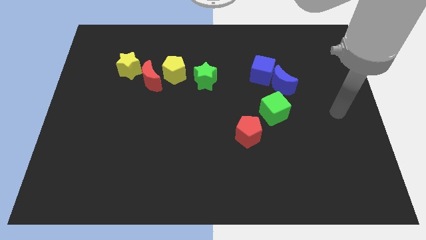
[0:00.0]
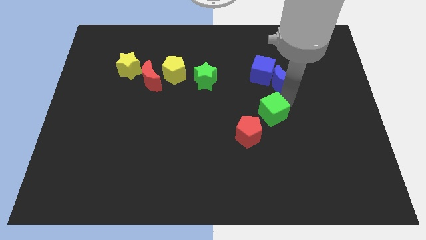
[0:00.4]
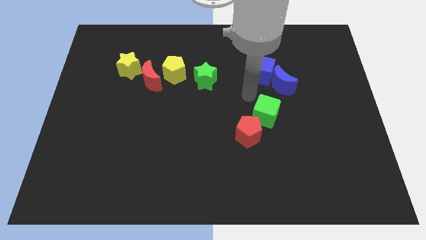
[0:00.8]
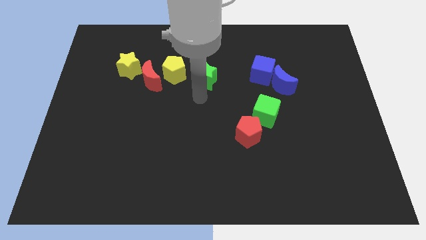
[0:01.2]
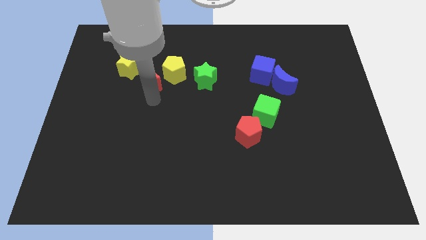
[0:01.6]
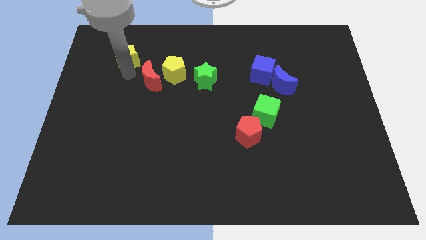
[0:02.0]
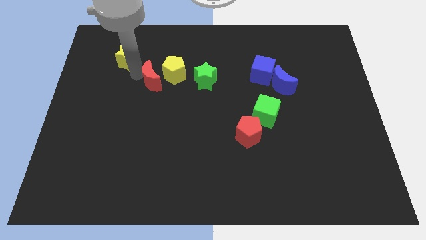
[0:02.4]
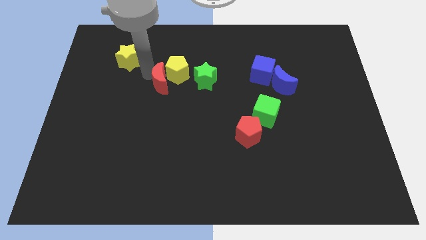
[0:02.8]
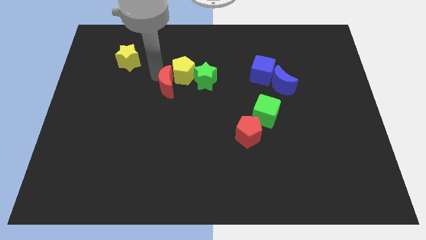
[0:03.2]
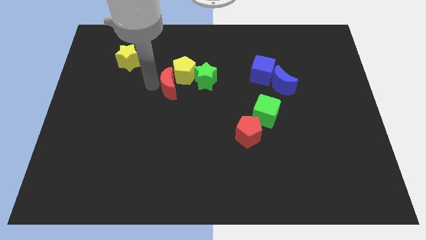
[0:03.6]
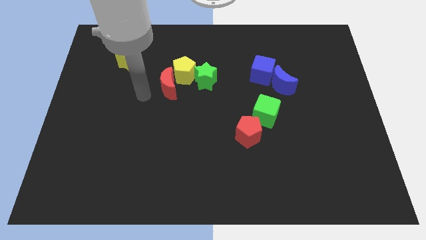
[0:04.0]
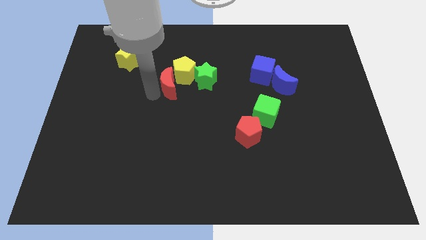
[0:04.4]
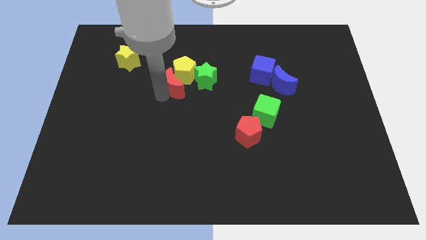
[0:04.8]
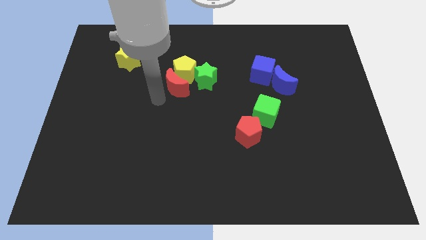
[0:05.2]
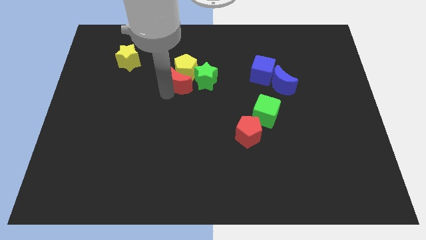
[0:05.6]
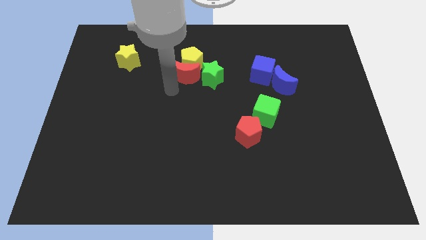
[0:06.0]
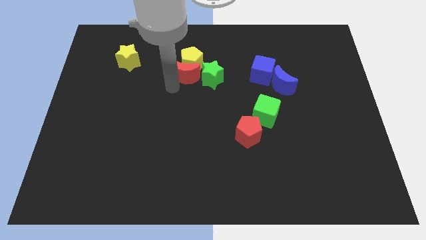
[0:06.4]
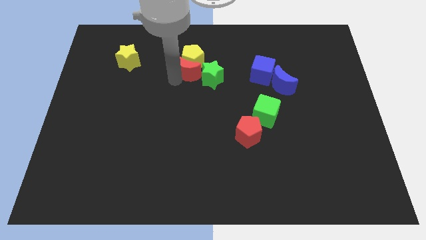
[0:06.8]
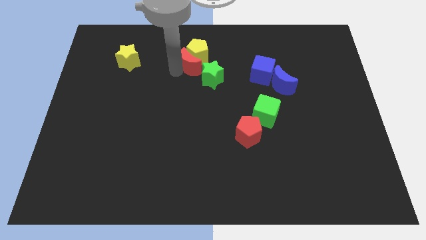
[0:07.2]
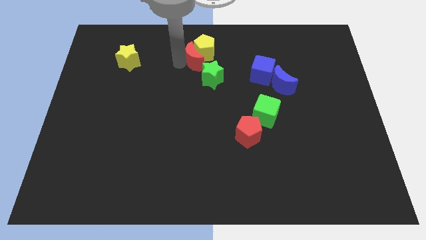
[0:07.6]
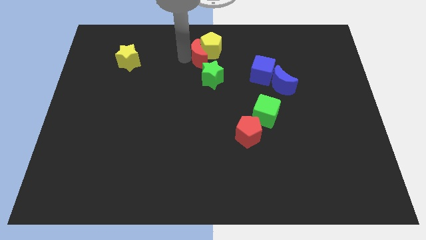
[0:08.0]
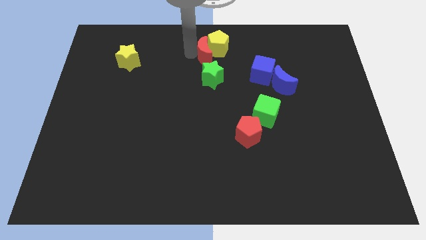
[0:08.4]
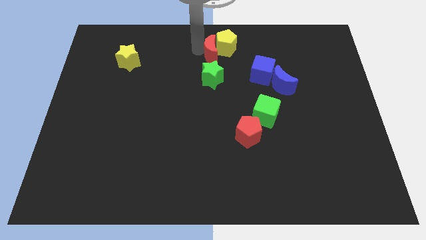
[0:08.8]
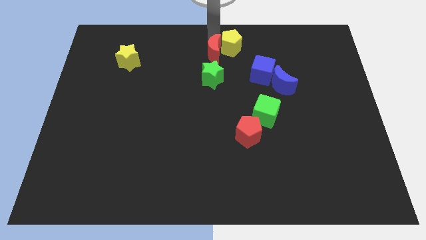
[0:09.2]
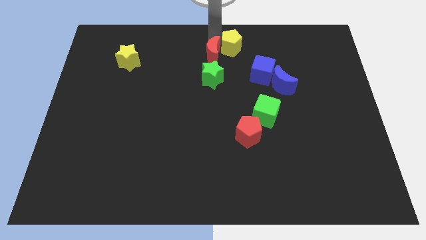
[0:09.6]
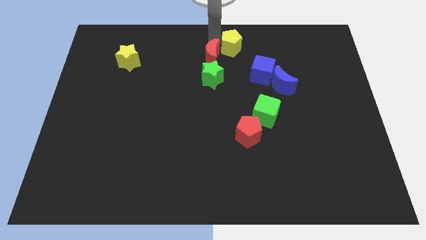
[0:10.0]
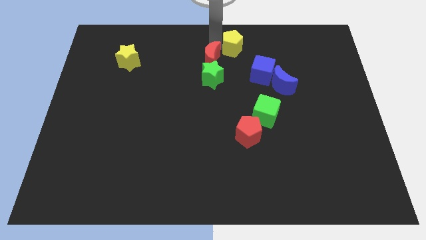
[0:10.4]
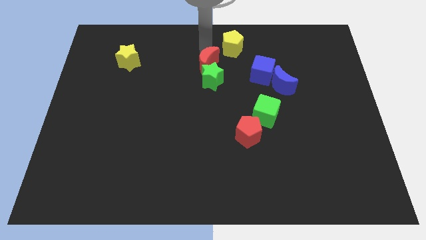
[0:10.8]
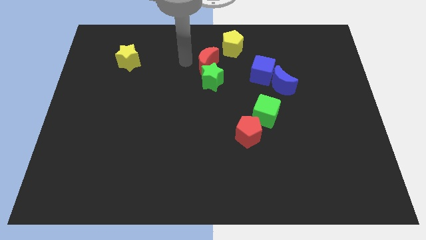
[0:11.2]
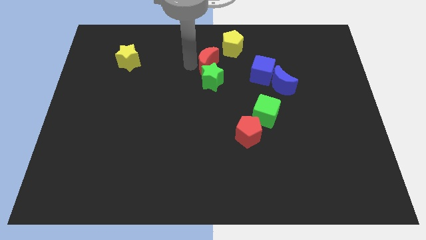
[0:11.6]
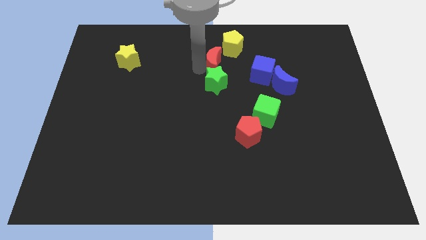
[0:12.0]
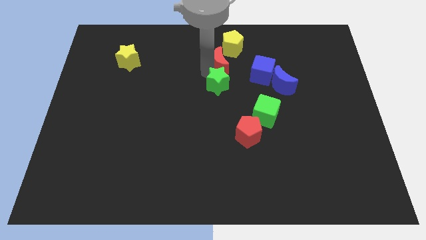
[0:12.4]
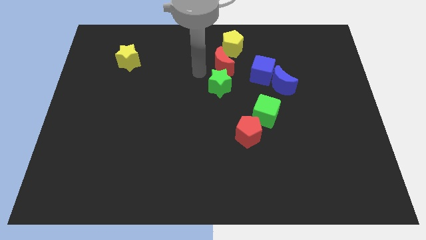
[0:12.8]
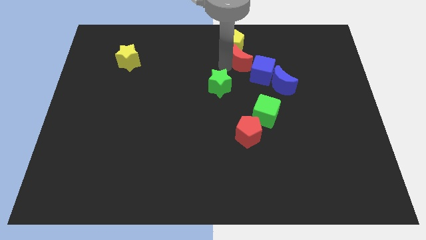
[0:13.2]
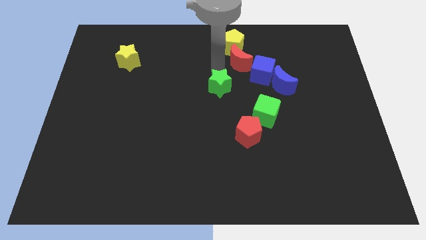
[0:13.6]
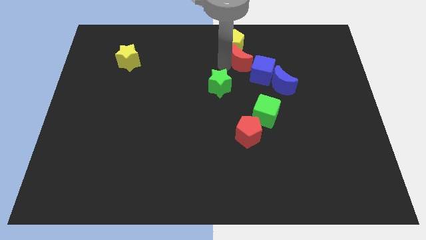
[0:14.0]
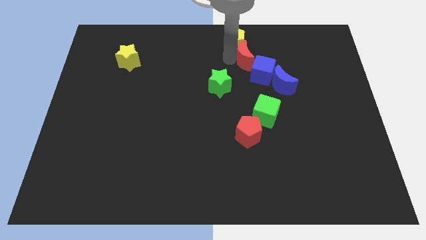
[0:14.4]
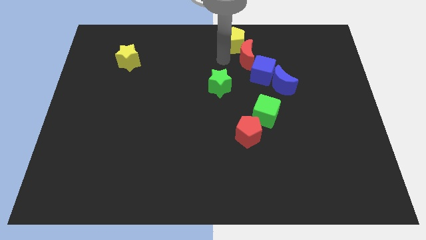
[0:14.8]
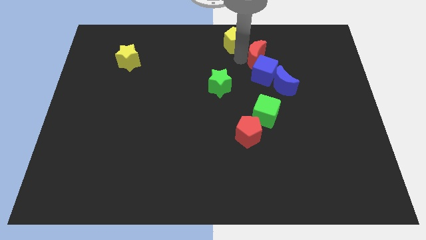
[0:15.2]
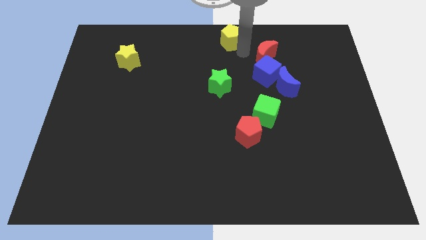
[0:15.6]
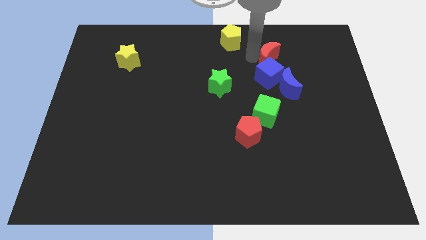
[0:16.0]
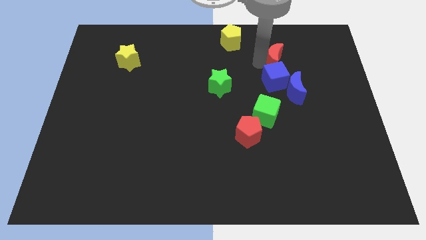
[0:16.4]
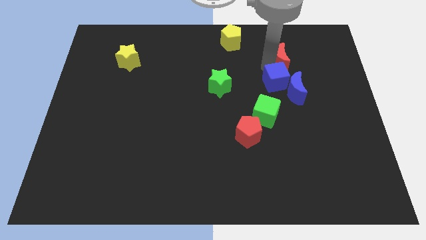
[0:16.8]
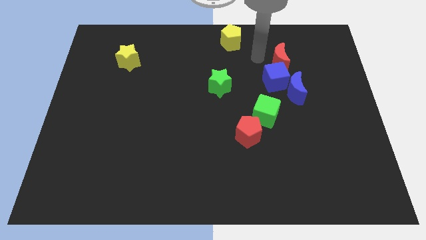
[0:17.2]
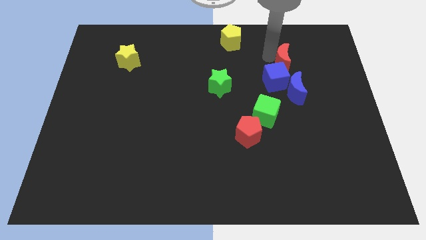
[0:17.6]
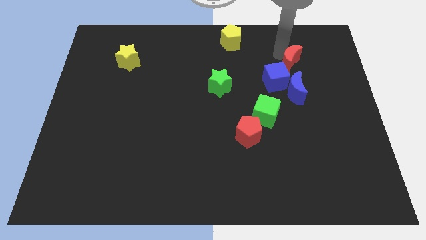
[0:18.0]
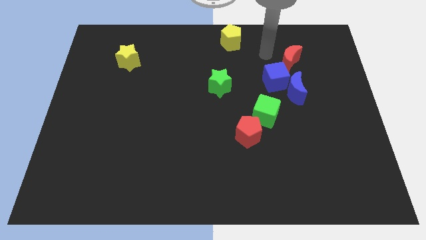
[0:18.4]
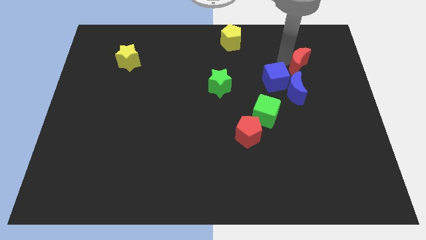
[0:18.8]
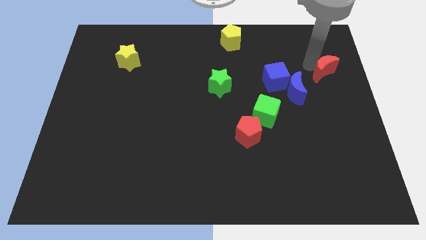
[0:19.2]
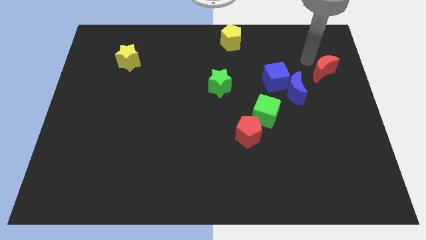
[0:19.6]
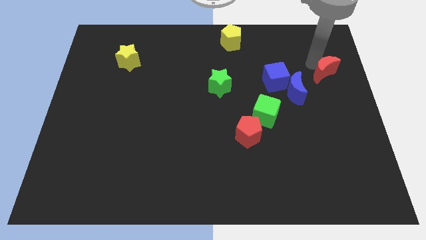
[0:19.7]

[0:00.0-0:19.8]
push the red moon to the right side

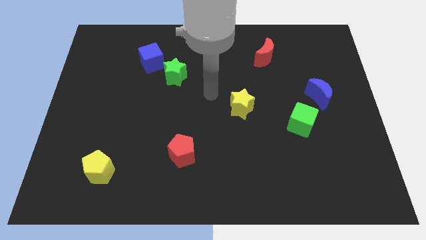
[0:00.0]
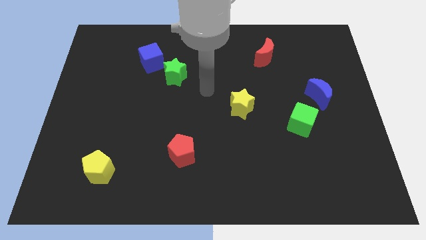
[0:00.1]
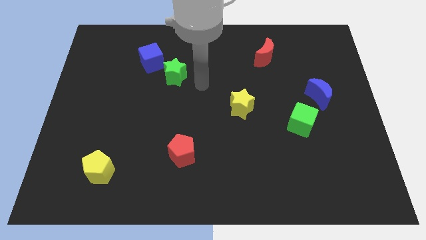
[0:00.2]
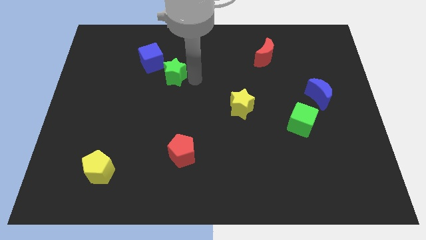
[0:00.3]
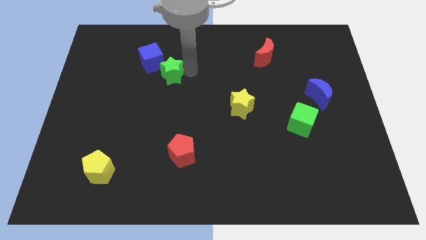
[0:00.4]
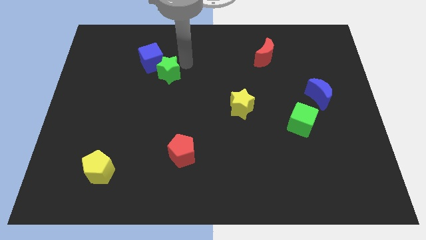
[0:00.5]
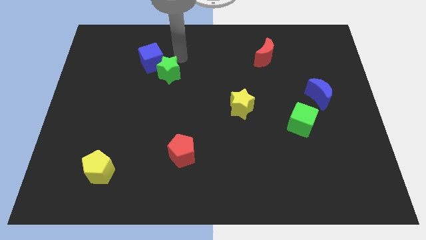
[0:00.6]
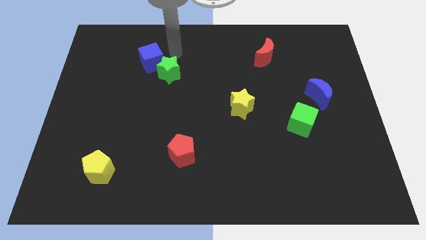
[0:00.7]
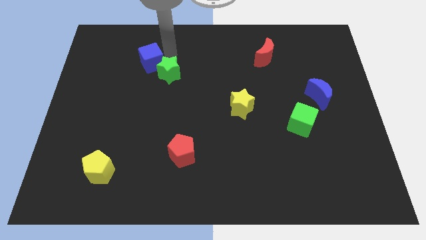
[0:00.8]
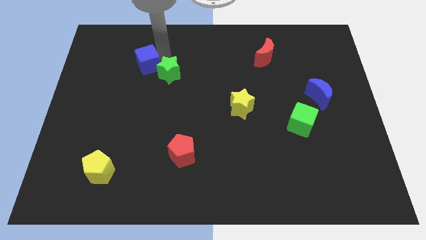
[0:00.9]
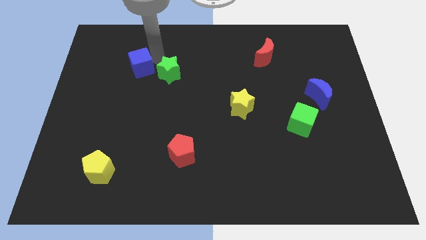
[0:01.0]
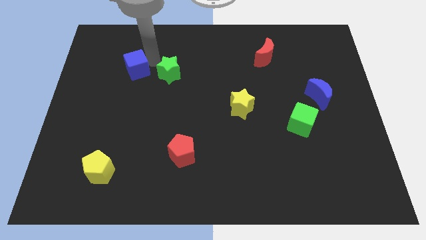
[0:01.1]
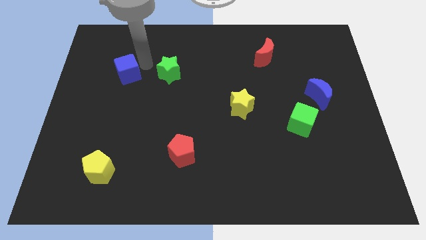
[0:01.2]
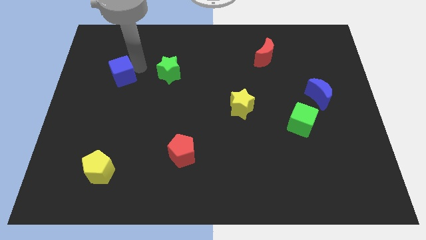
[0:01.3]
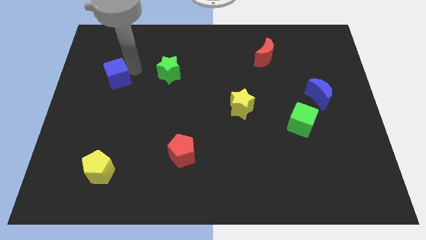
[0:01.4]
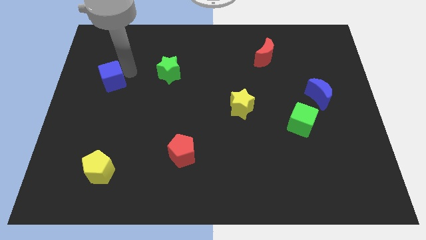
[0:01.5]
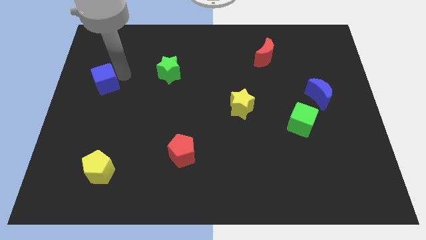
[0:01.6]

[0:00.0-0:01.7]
move the blue cube to the center left

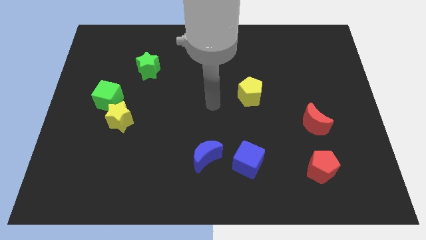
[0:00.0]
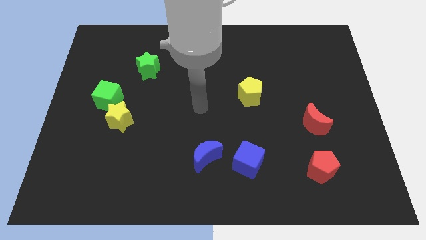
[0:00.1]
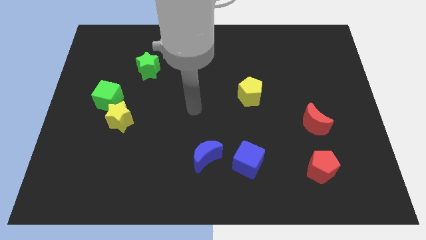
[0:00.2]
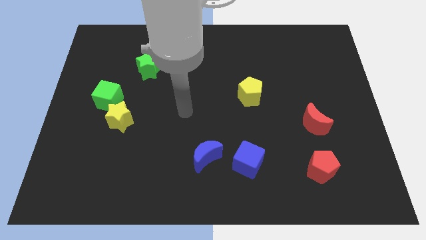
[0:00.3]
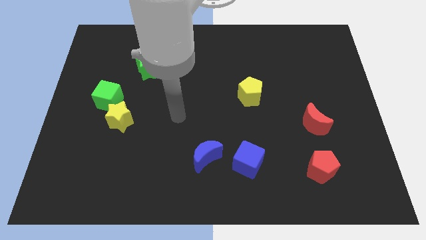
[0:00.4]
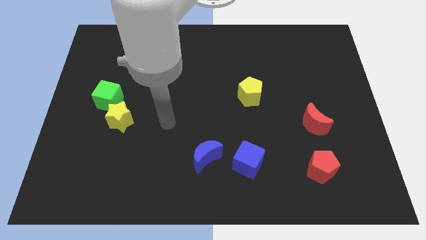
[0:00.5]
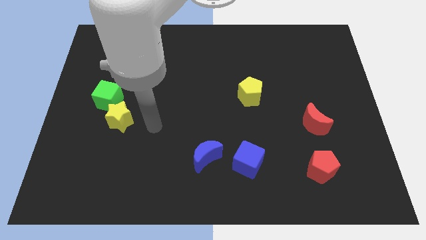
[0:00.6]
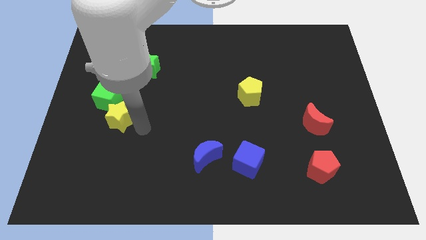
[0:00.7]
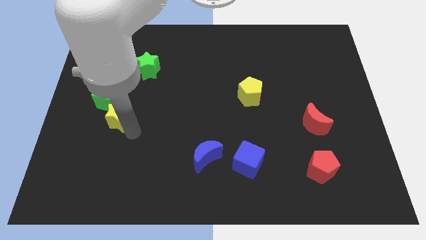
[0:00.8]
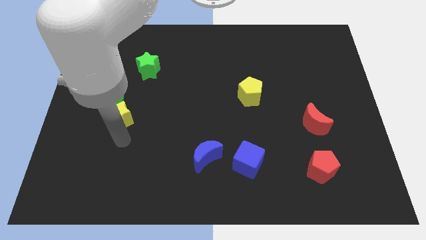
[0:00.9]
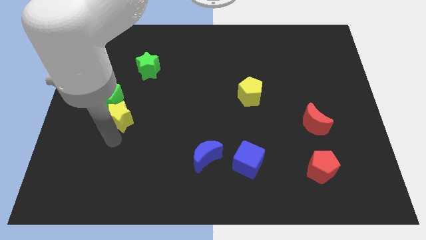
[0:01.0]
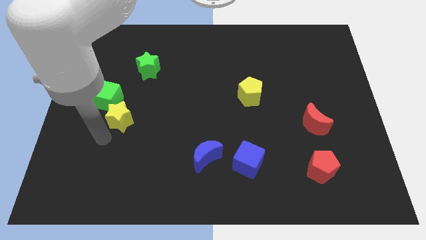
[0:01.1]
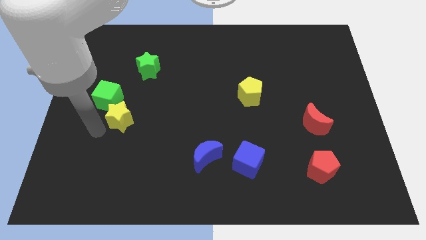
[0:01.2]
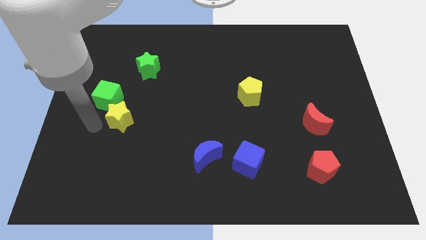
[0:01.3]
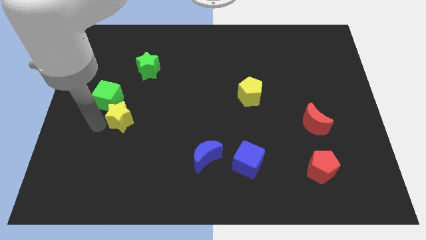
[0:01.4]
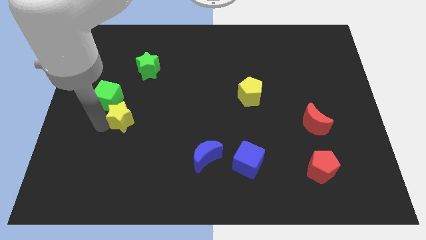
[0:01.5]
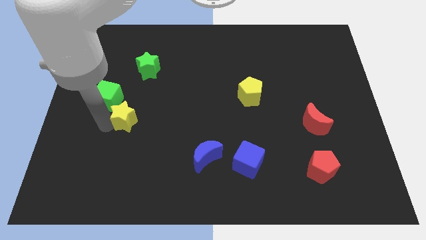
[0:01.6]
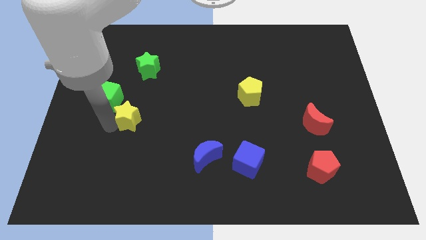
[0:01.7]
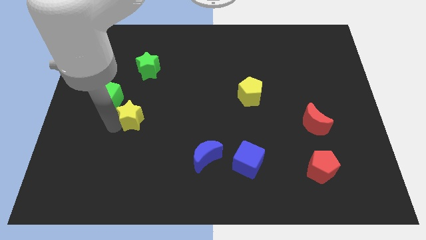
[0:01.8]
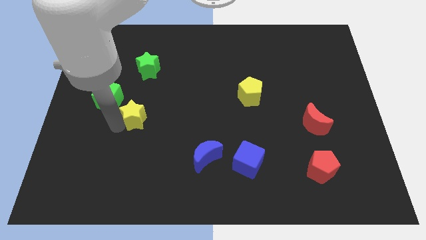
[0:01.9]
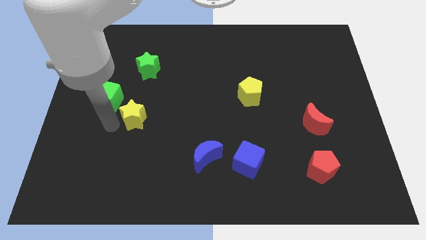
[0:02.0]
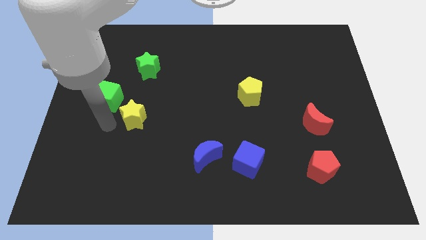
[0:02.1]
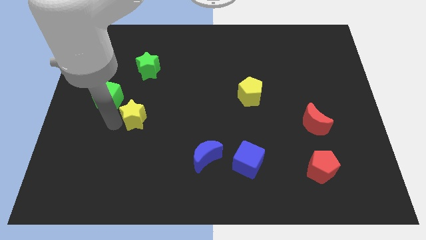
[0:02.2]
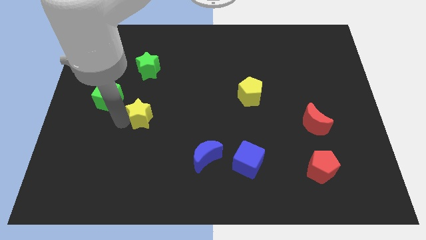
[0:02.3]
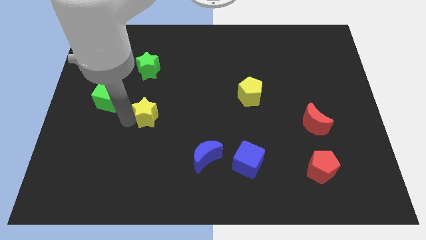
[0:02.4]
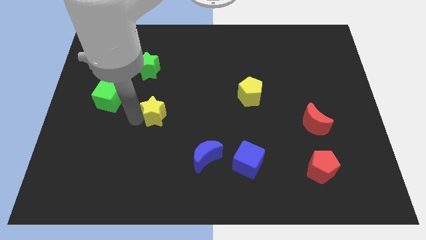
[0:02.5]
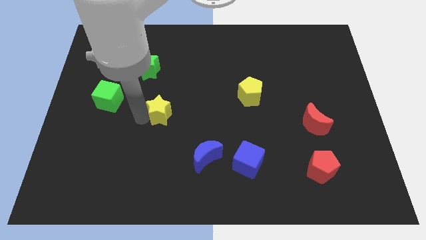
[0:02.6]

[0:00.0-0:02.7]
put the yellow star to the middle of the board
